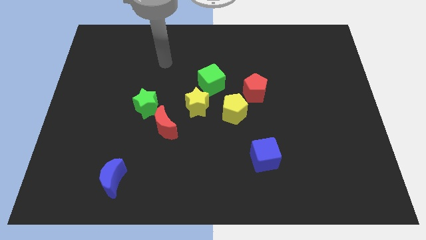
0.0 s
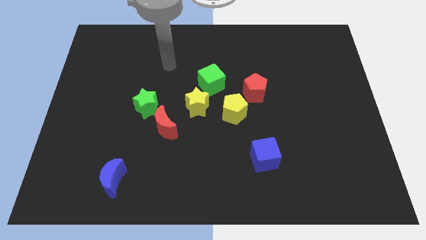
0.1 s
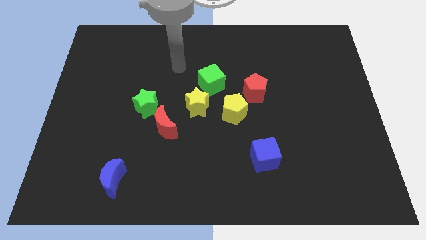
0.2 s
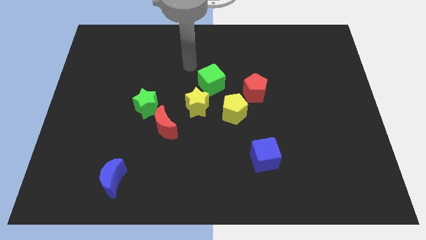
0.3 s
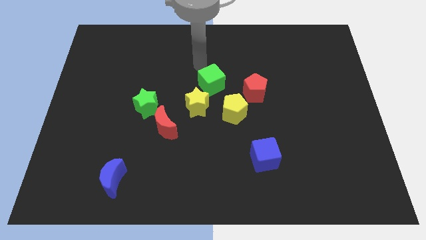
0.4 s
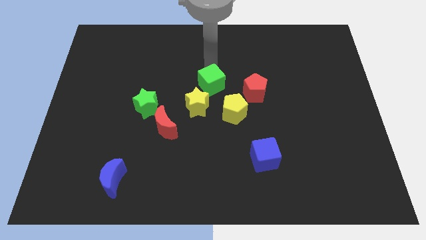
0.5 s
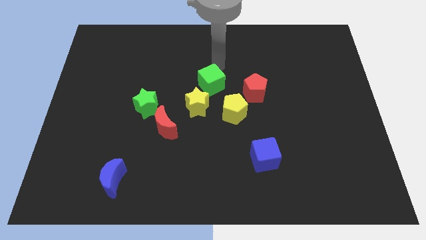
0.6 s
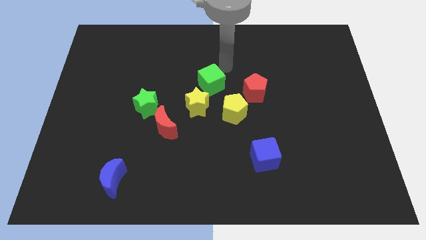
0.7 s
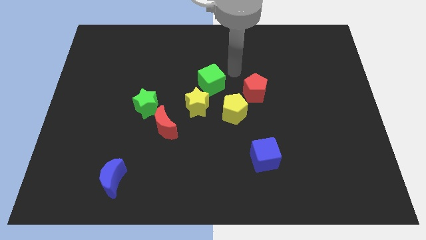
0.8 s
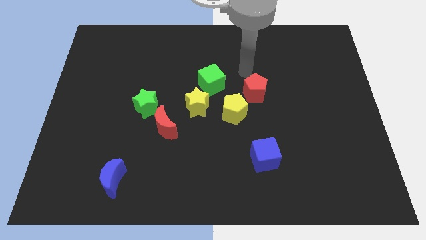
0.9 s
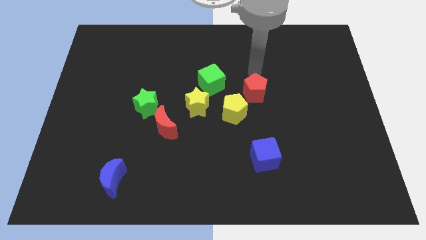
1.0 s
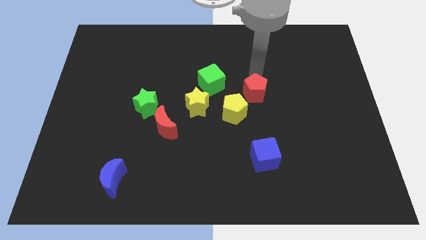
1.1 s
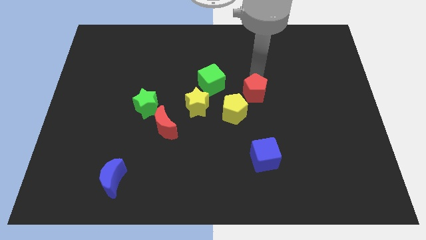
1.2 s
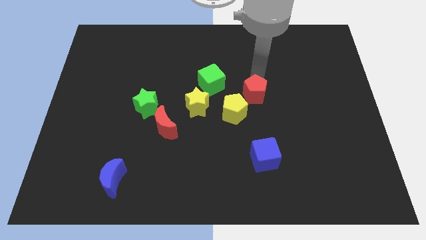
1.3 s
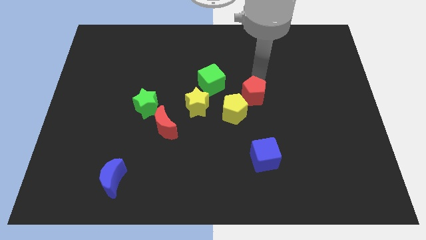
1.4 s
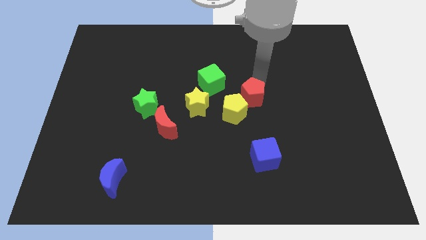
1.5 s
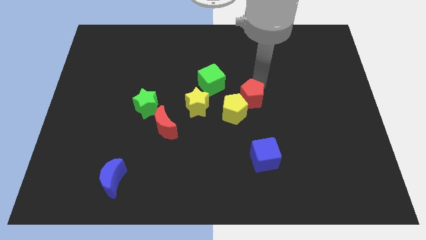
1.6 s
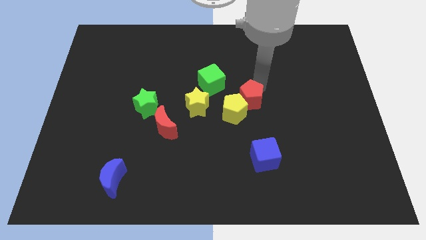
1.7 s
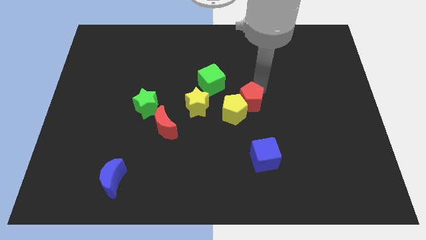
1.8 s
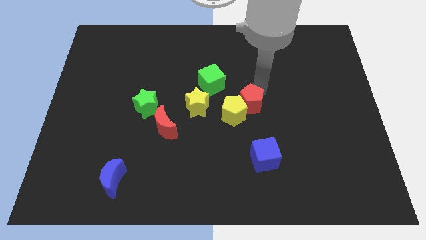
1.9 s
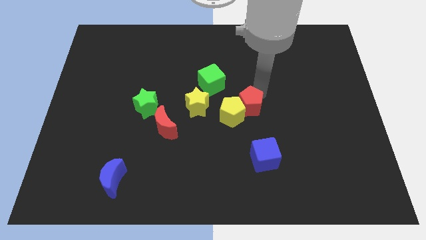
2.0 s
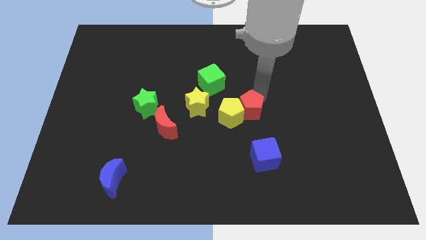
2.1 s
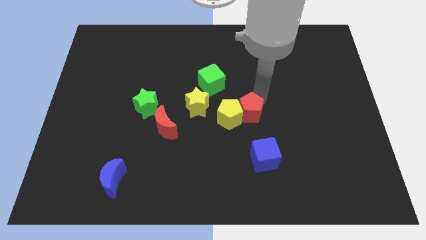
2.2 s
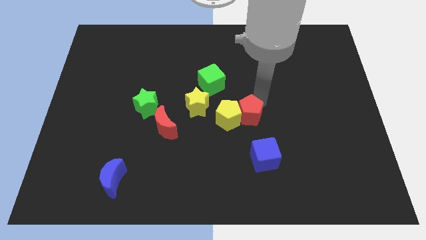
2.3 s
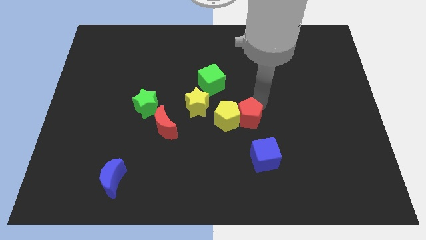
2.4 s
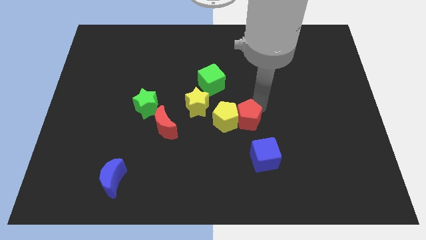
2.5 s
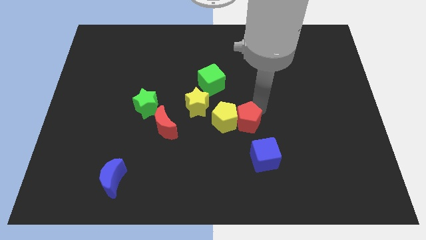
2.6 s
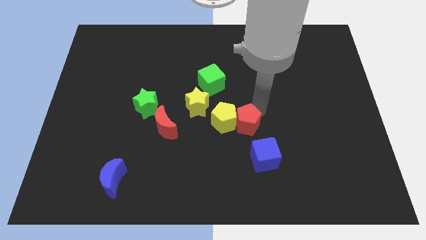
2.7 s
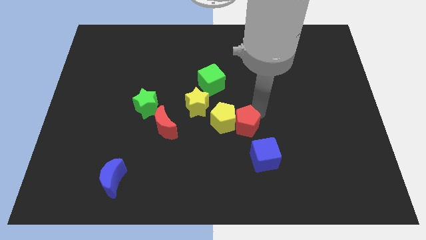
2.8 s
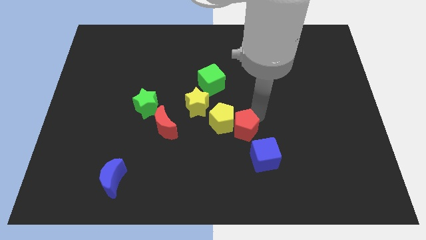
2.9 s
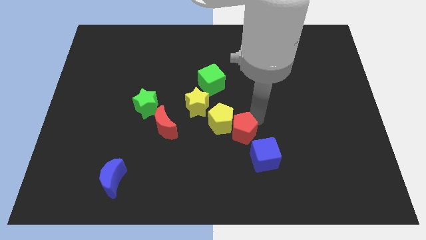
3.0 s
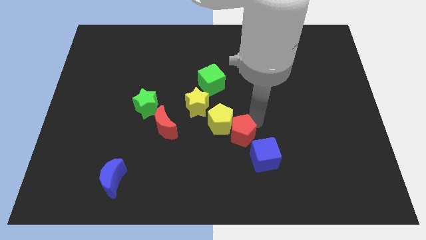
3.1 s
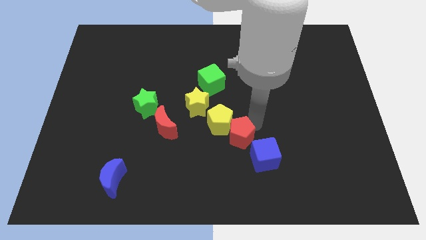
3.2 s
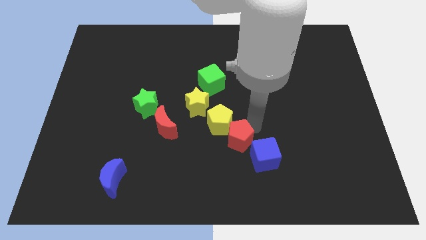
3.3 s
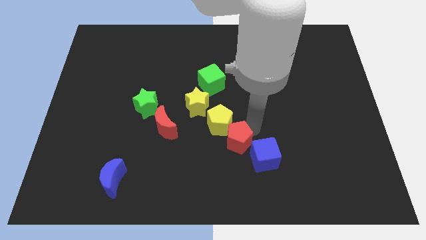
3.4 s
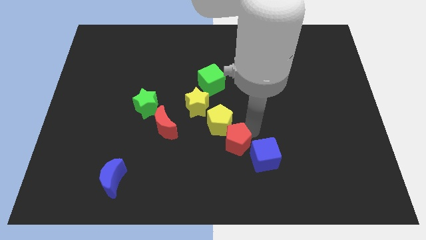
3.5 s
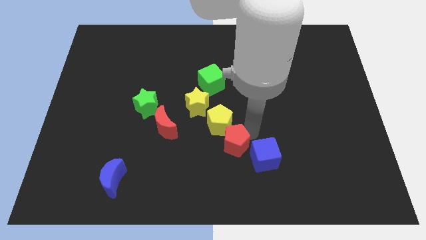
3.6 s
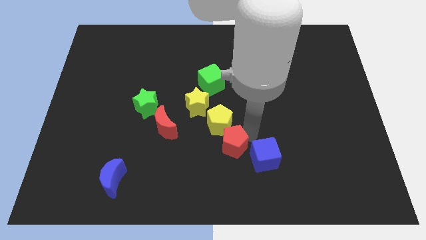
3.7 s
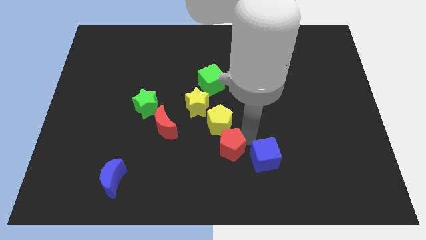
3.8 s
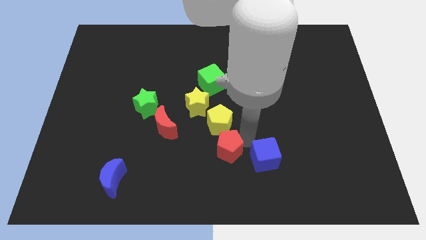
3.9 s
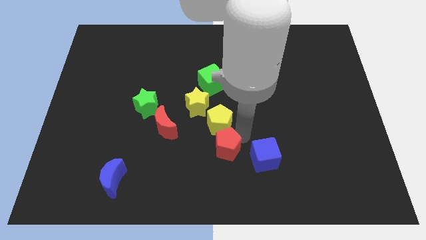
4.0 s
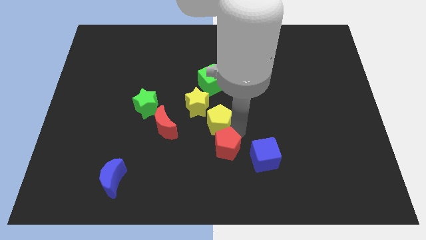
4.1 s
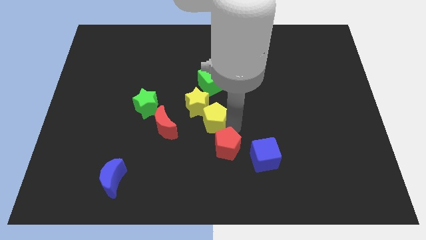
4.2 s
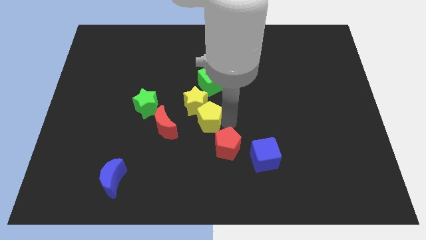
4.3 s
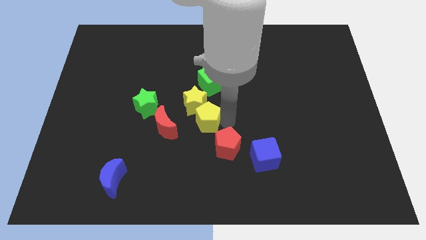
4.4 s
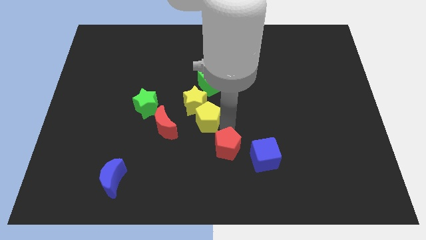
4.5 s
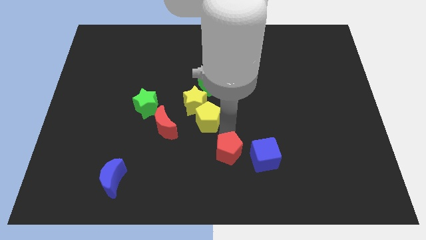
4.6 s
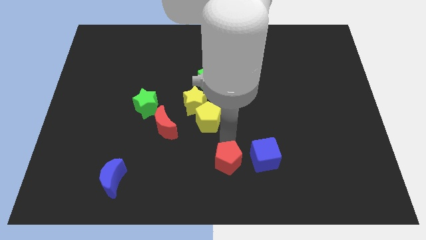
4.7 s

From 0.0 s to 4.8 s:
push the red pentagon to the bottom side

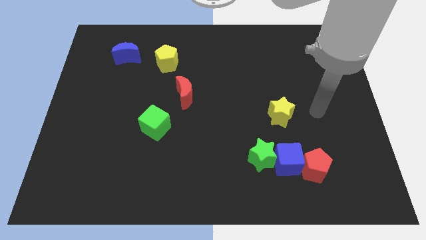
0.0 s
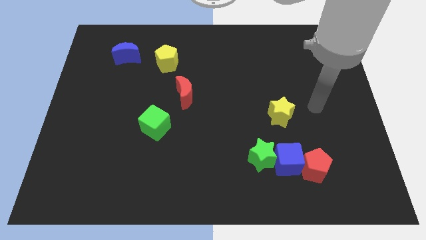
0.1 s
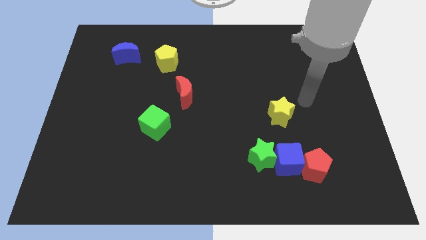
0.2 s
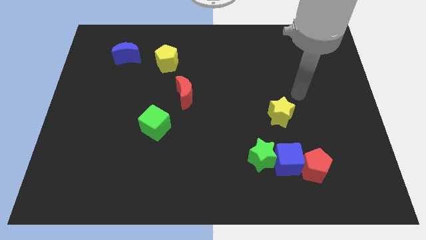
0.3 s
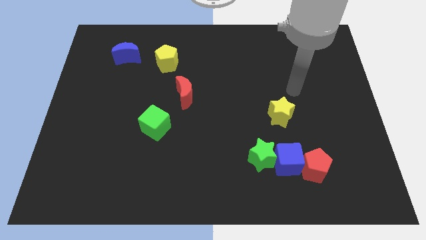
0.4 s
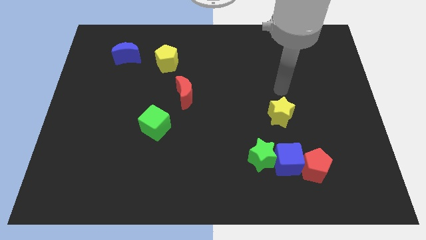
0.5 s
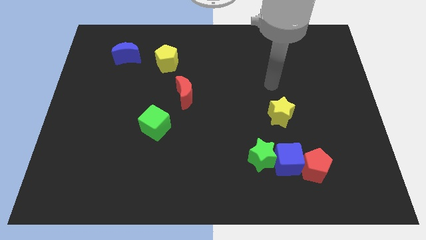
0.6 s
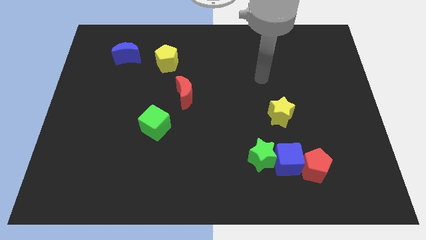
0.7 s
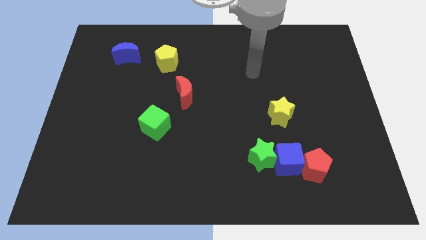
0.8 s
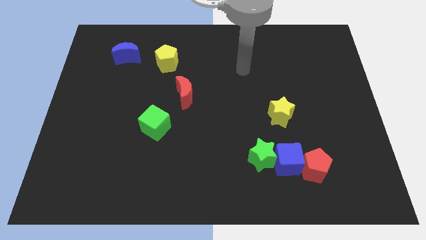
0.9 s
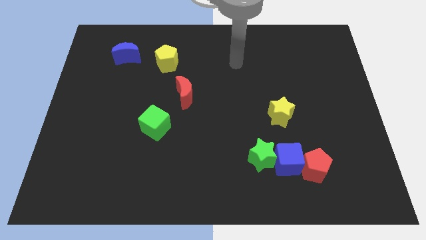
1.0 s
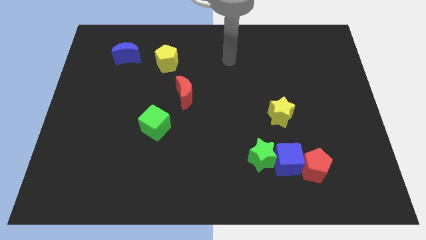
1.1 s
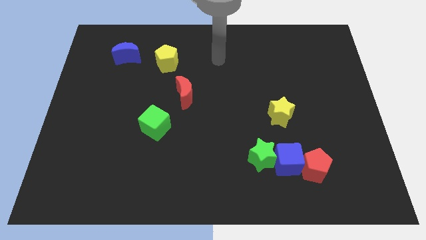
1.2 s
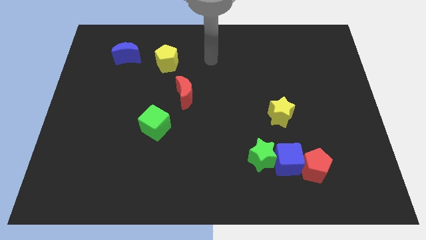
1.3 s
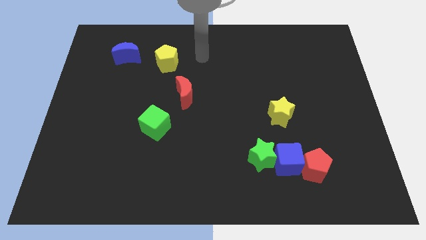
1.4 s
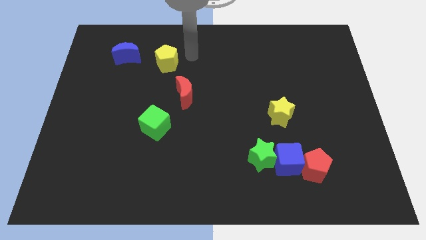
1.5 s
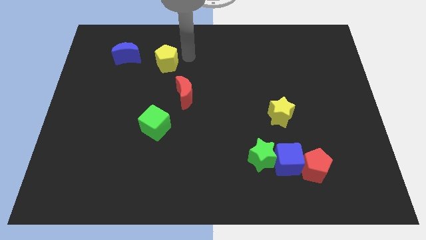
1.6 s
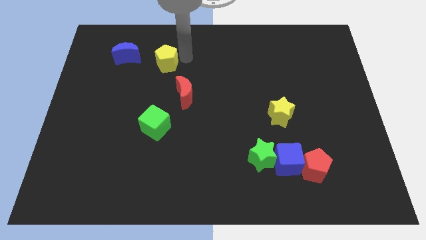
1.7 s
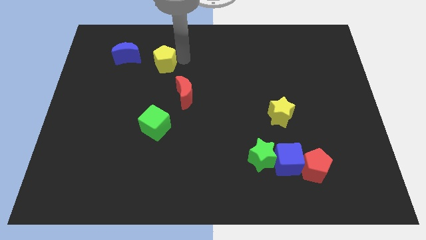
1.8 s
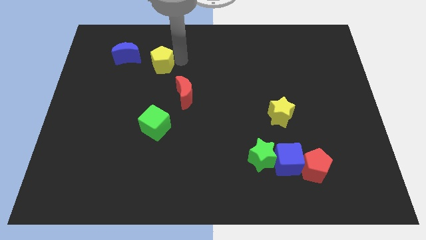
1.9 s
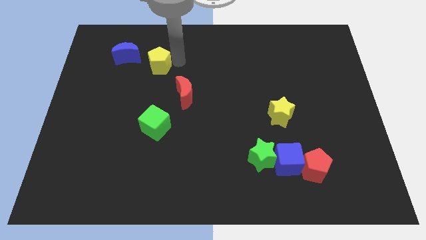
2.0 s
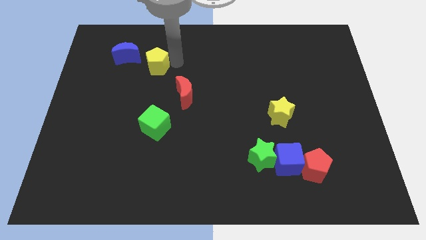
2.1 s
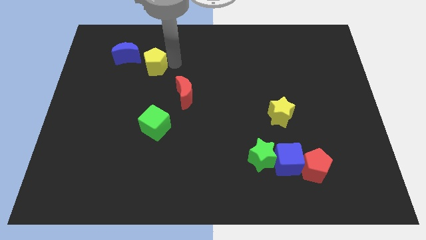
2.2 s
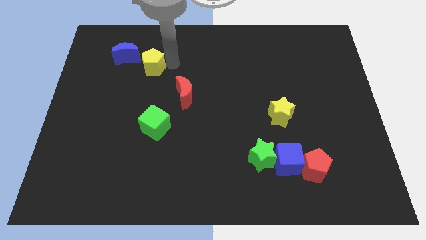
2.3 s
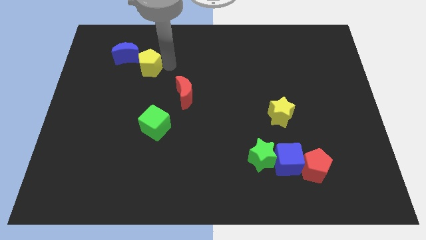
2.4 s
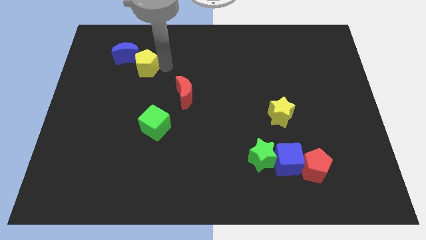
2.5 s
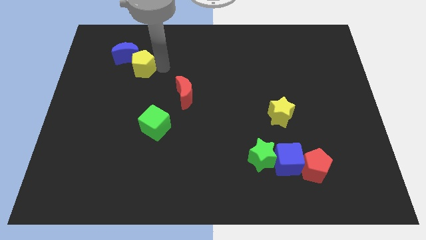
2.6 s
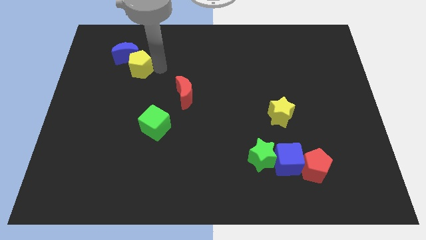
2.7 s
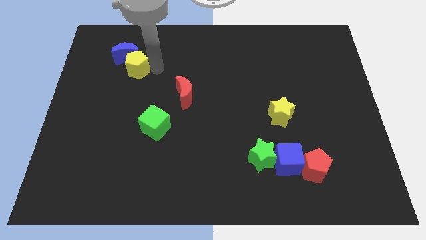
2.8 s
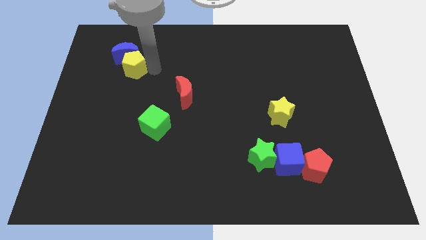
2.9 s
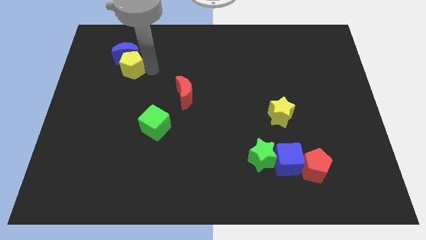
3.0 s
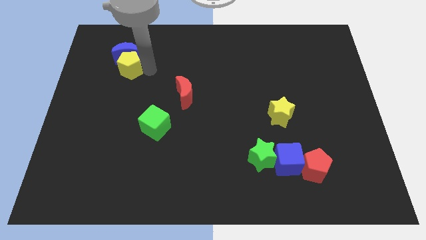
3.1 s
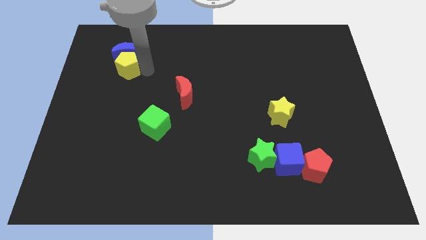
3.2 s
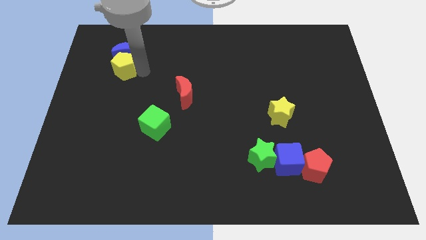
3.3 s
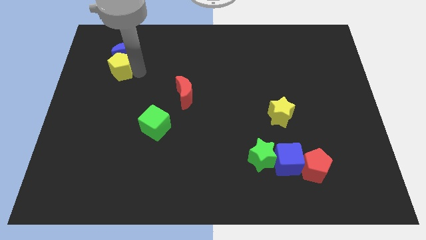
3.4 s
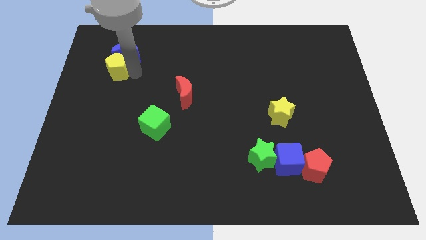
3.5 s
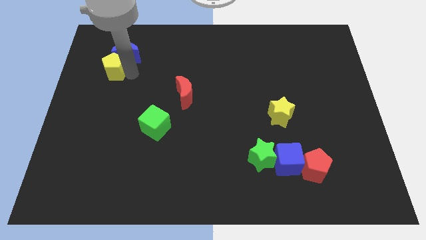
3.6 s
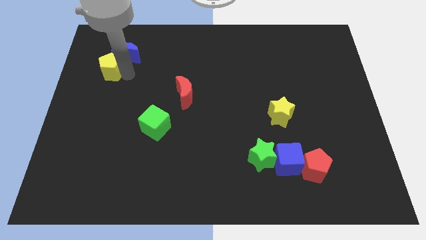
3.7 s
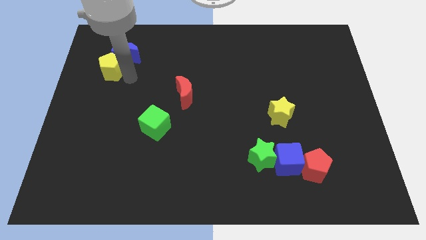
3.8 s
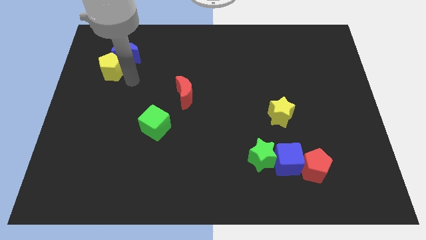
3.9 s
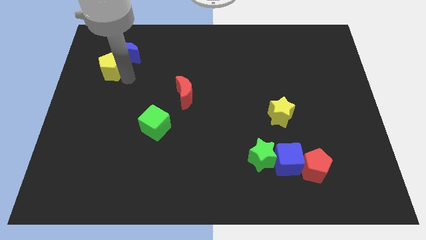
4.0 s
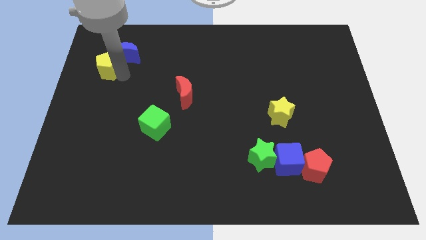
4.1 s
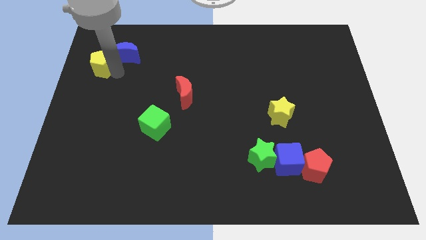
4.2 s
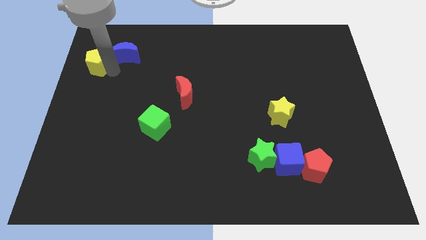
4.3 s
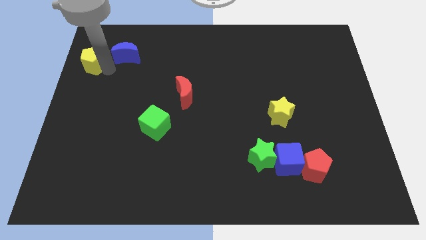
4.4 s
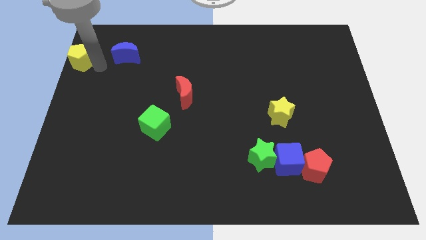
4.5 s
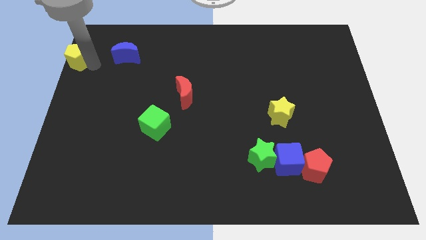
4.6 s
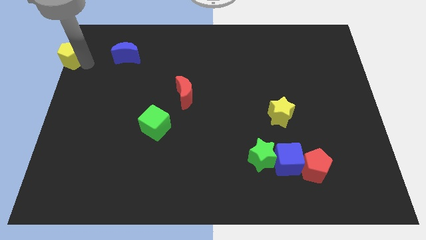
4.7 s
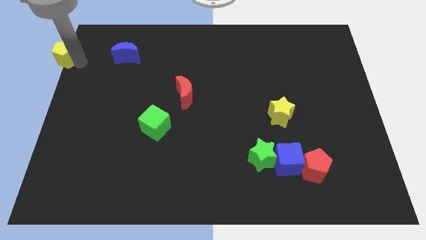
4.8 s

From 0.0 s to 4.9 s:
put the yellow pentagon to the top left of the board
